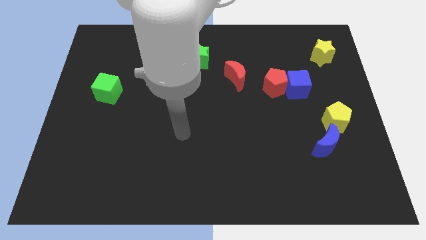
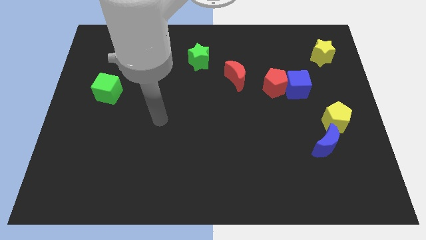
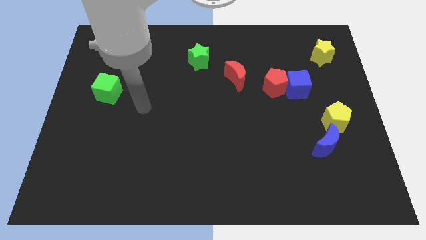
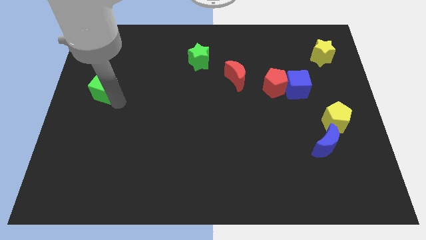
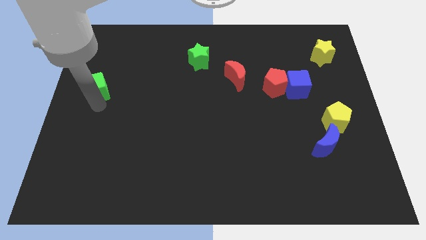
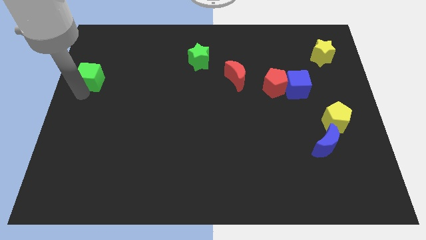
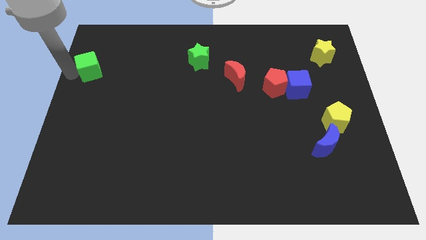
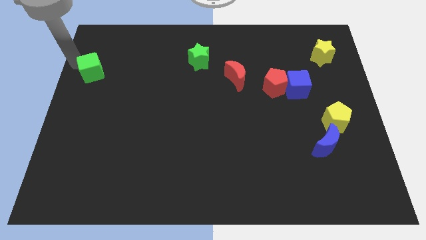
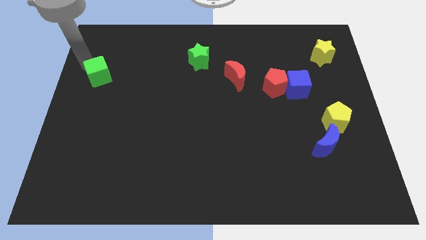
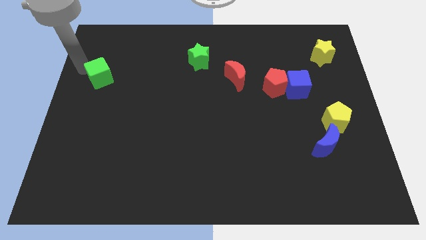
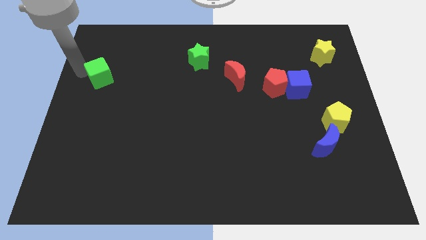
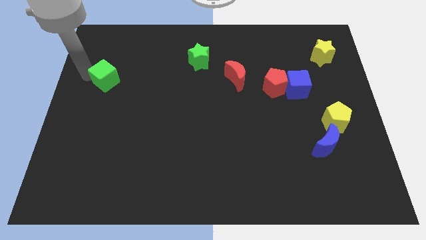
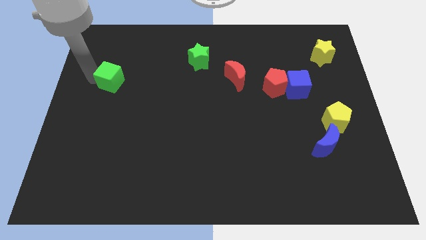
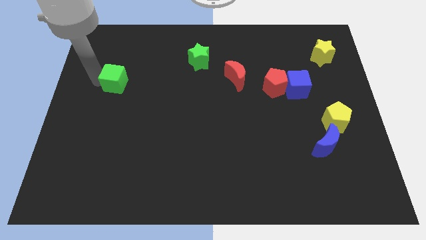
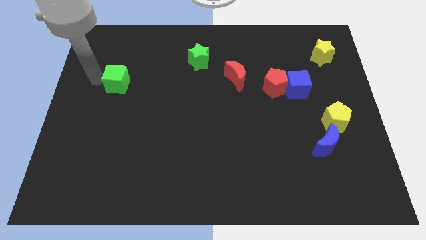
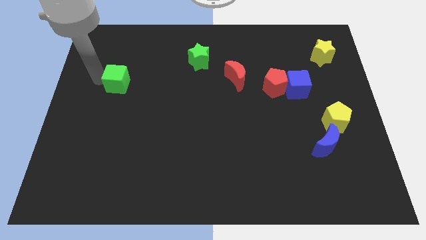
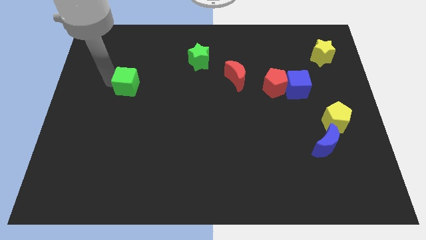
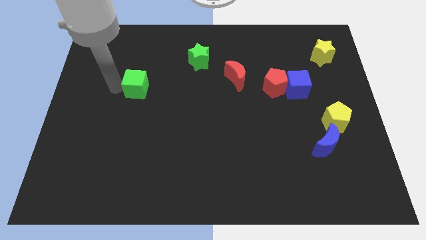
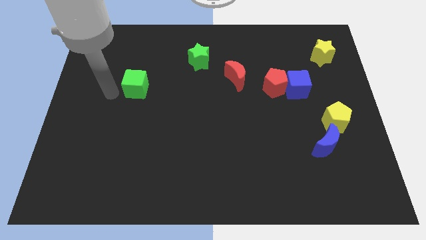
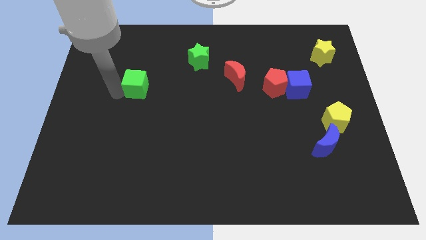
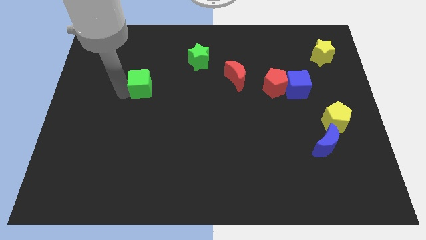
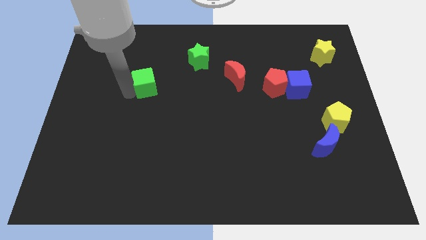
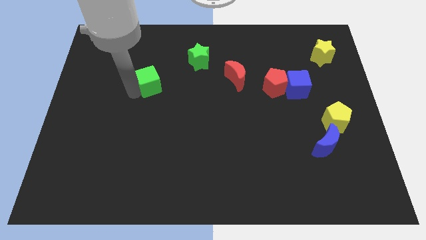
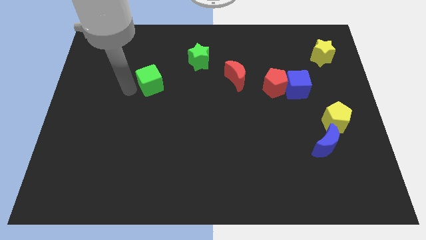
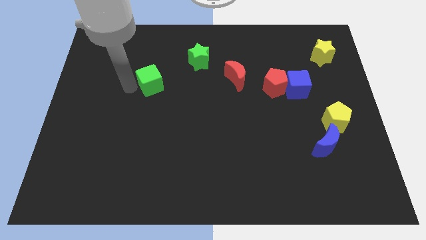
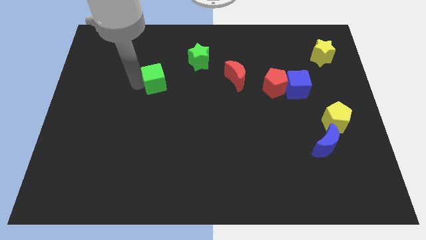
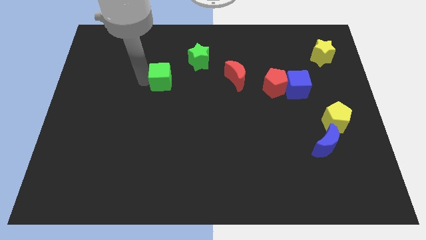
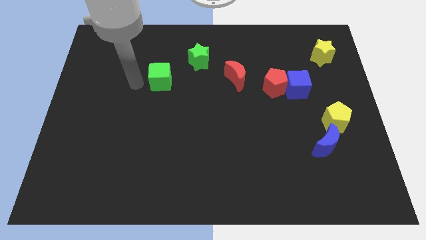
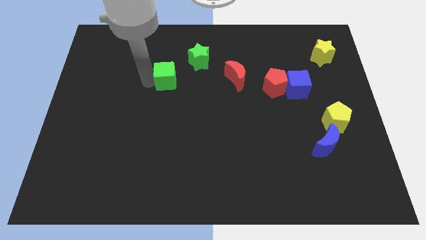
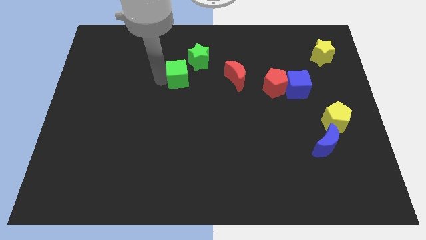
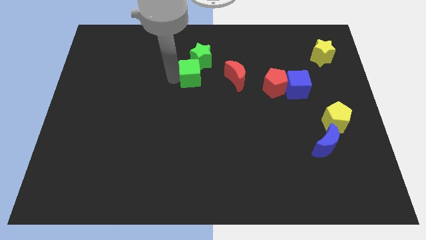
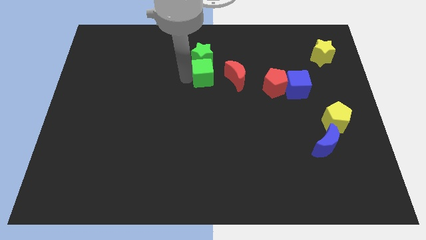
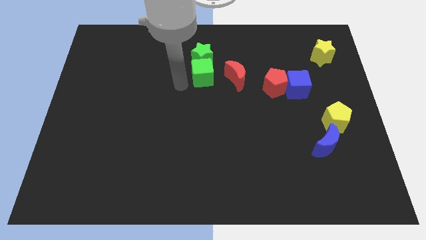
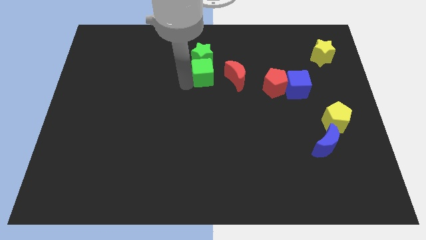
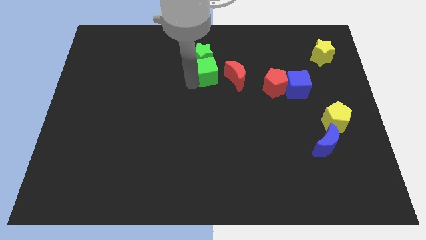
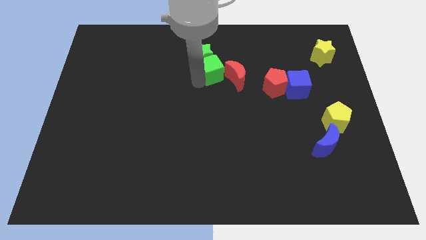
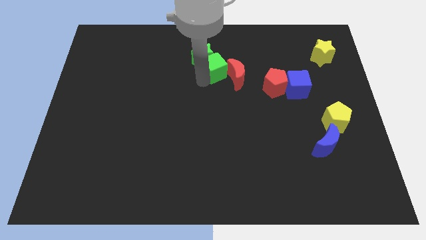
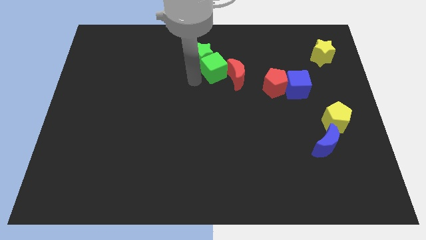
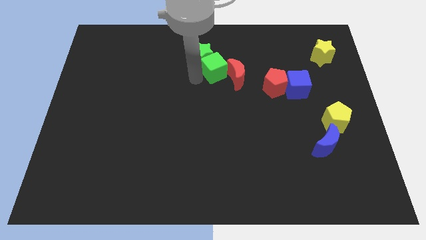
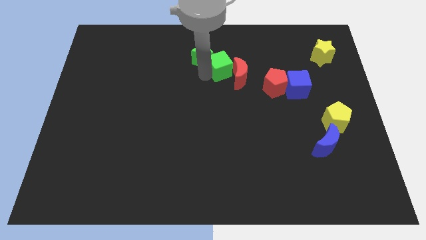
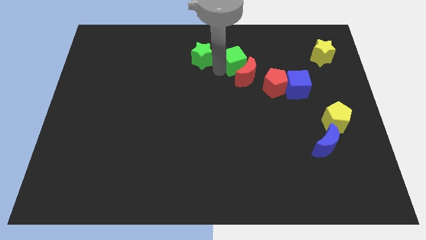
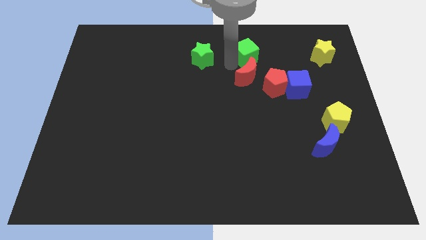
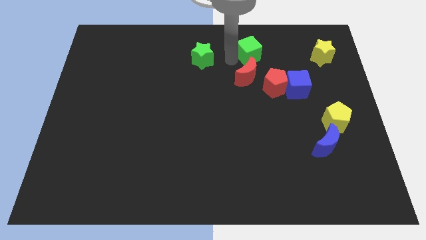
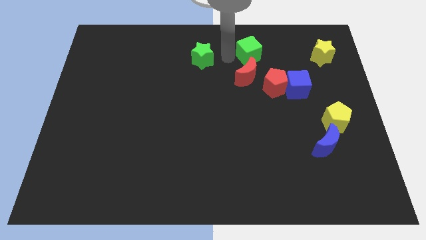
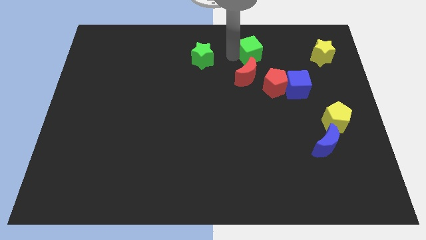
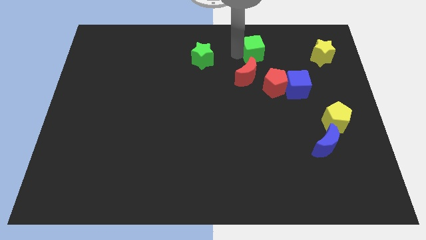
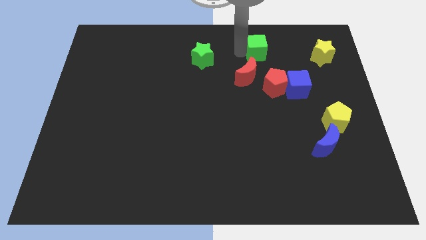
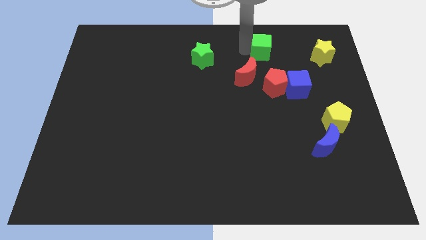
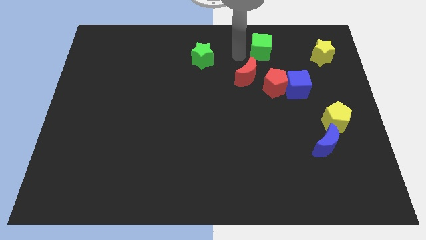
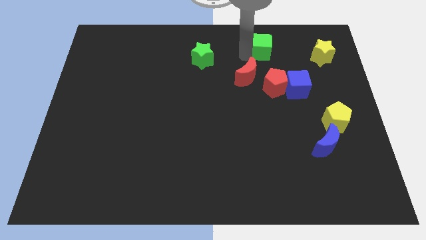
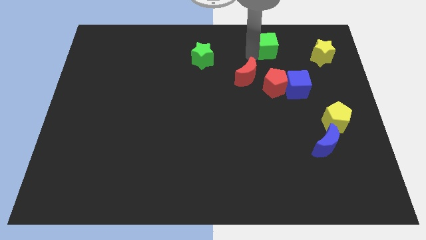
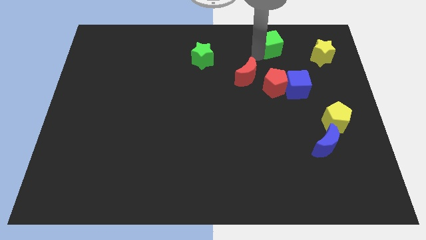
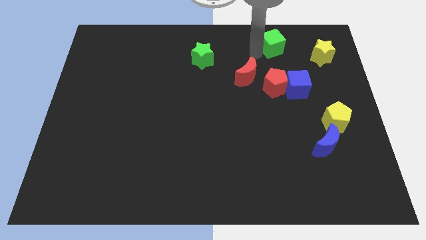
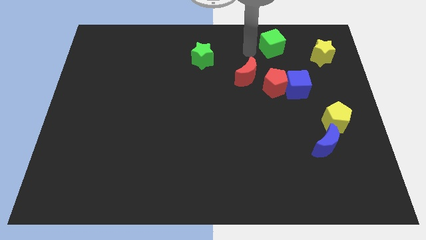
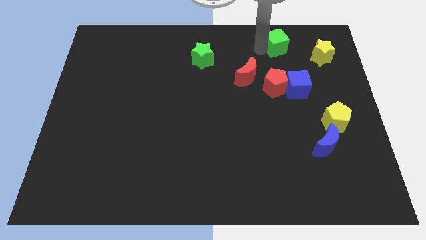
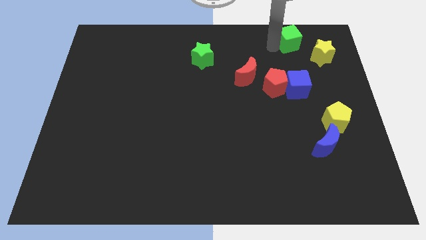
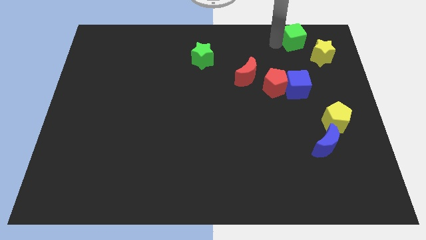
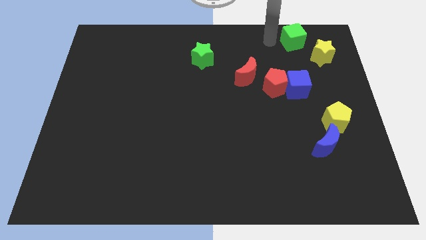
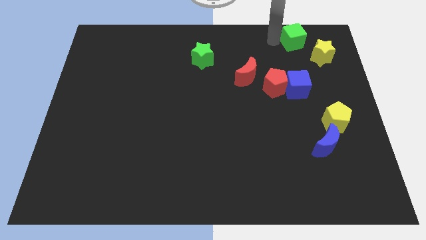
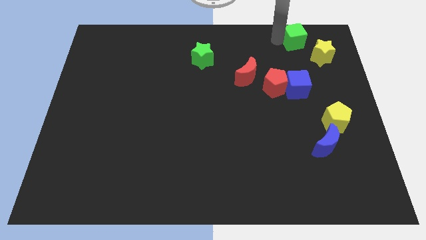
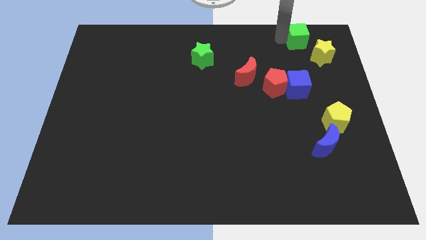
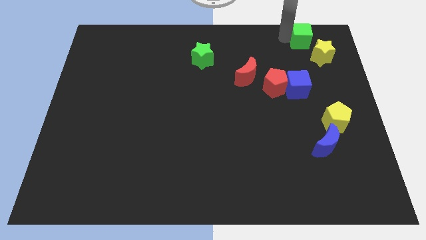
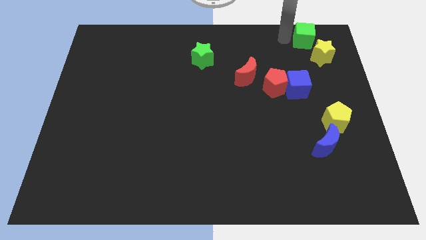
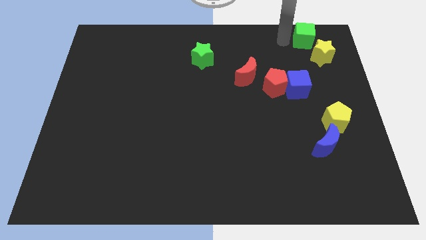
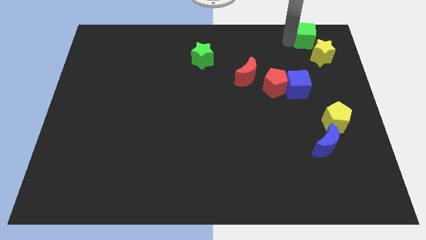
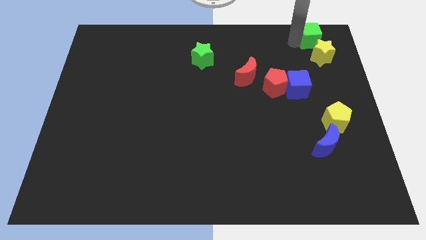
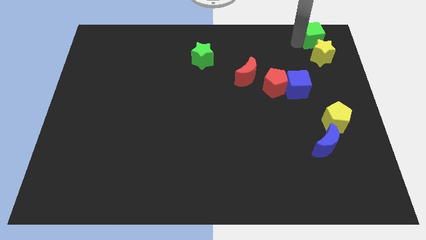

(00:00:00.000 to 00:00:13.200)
move the green cube to the top right of the board
